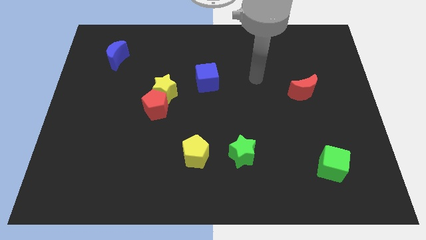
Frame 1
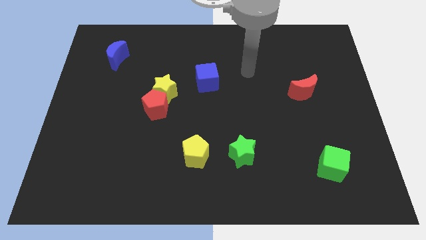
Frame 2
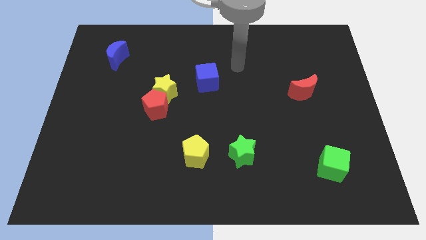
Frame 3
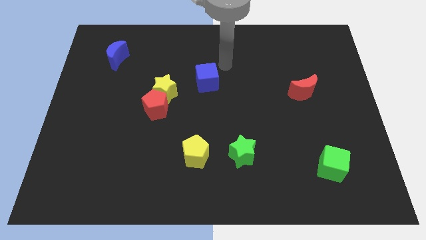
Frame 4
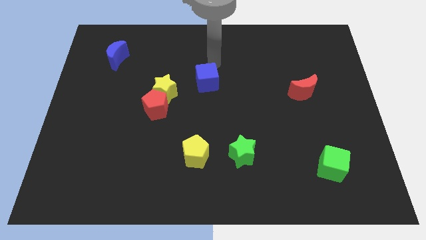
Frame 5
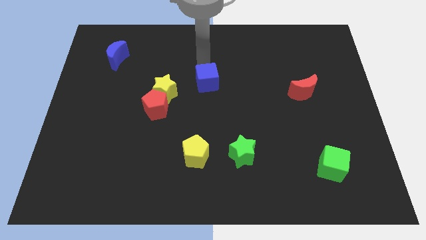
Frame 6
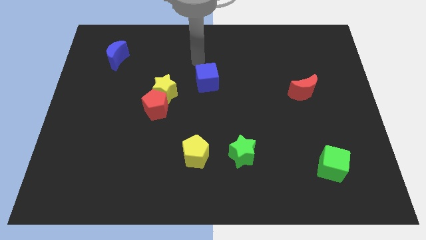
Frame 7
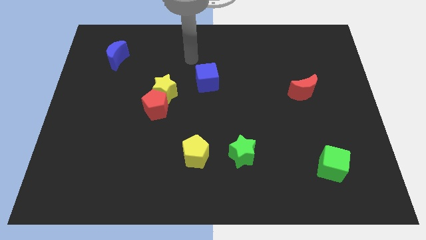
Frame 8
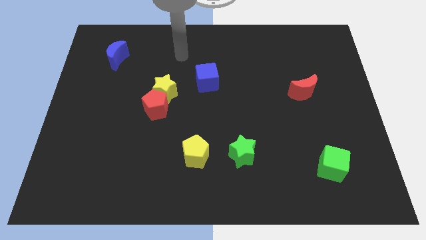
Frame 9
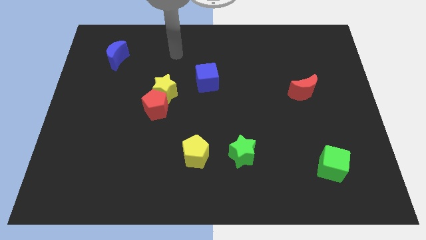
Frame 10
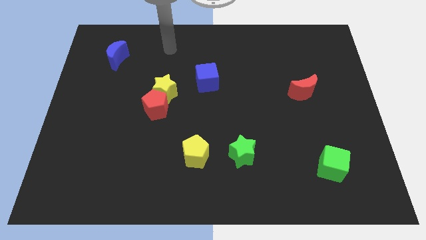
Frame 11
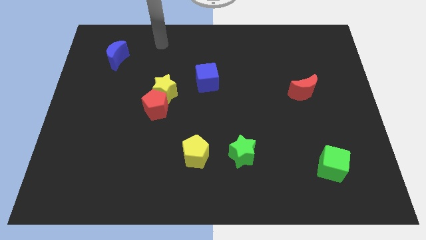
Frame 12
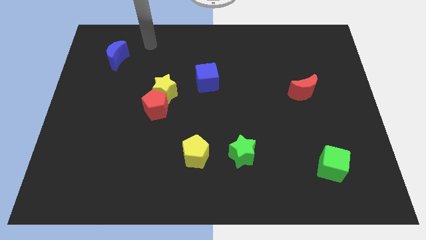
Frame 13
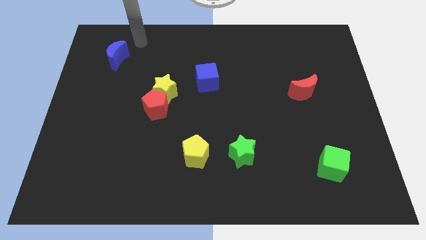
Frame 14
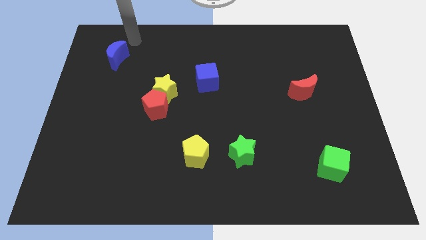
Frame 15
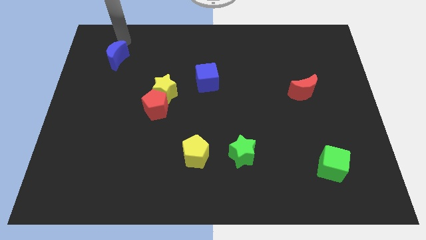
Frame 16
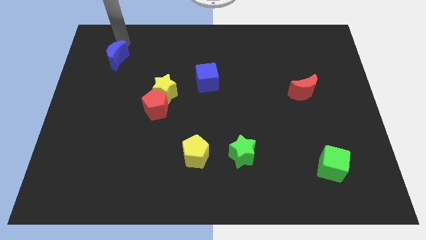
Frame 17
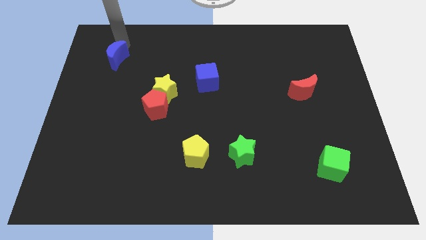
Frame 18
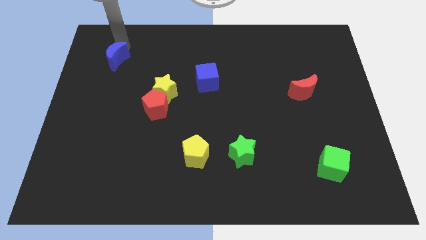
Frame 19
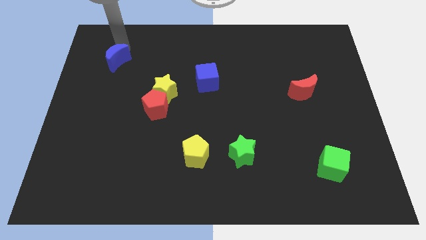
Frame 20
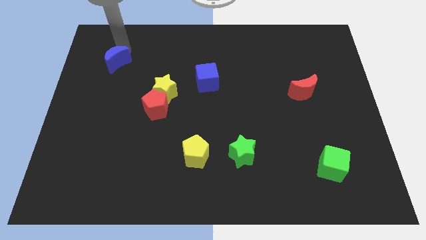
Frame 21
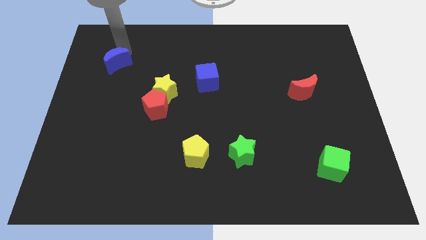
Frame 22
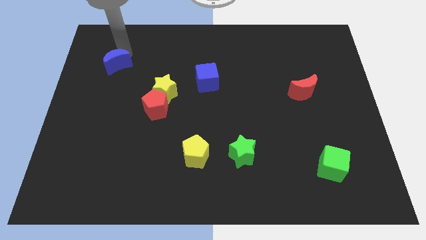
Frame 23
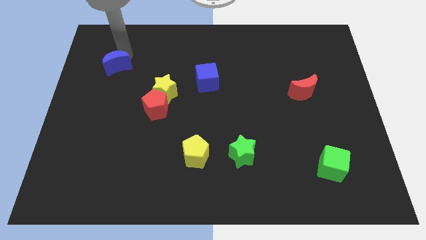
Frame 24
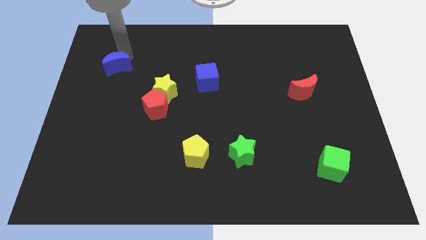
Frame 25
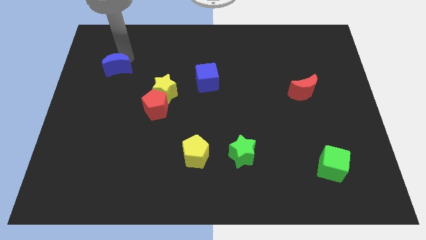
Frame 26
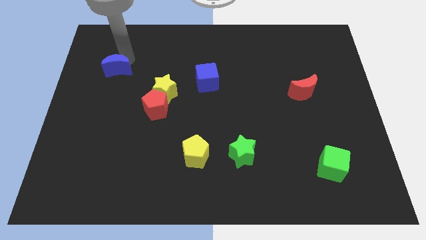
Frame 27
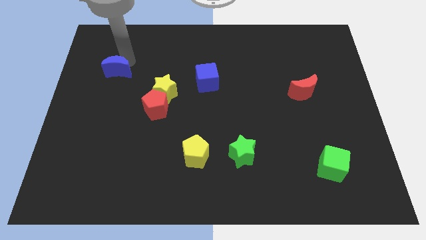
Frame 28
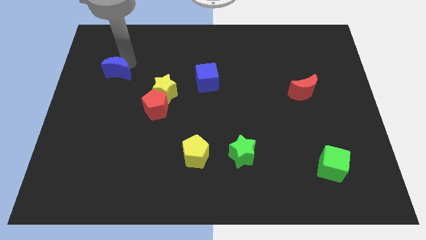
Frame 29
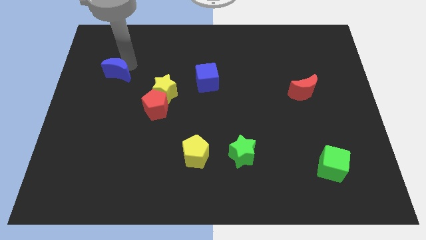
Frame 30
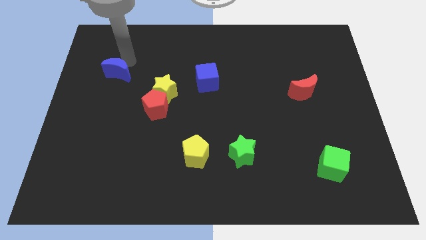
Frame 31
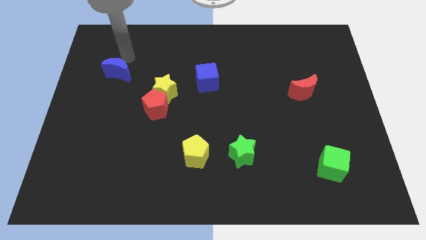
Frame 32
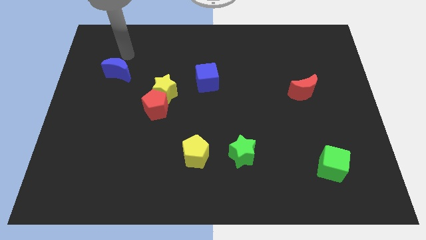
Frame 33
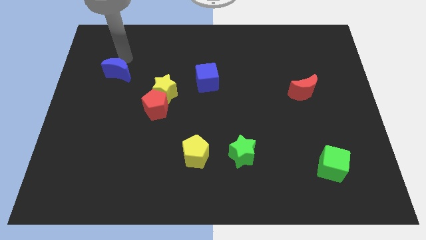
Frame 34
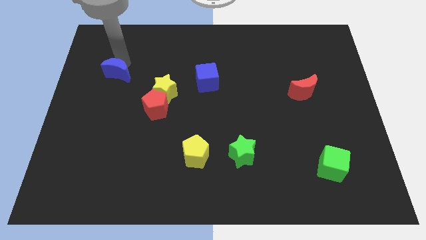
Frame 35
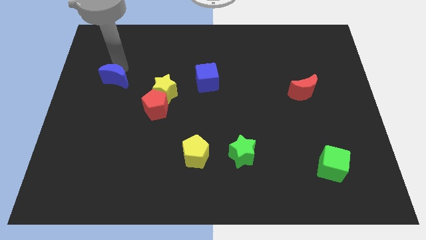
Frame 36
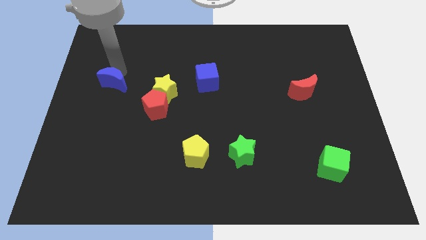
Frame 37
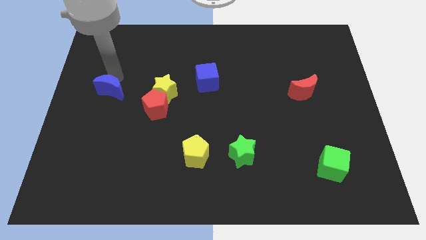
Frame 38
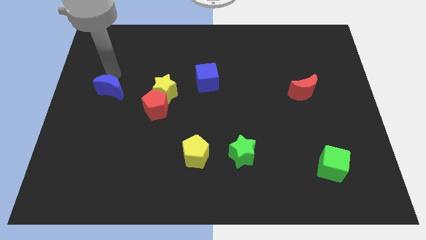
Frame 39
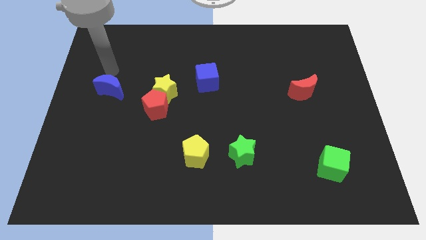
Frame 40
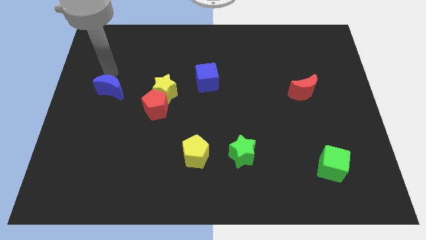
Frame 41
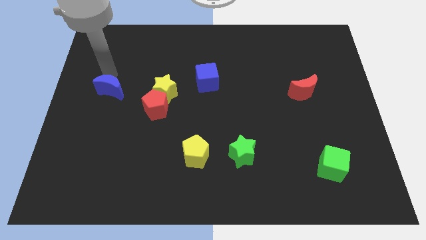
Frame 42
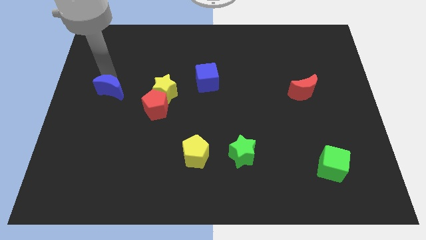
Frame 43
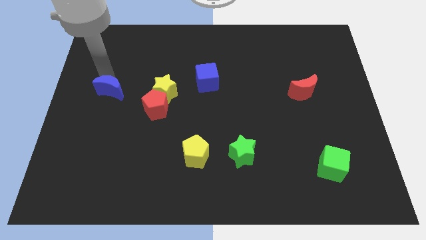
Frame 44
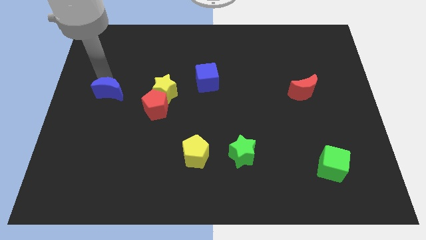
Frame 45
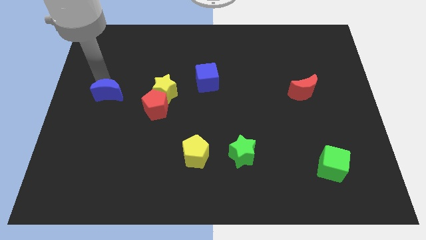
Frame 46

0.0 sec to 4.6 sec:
put the blue moon to the left of the red pentagon

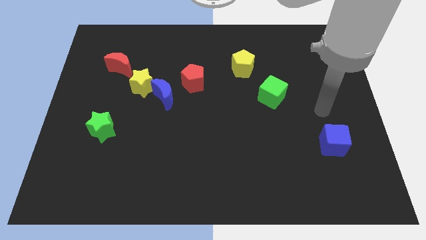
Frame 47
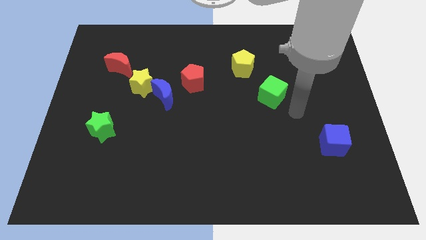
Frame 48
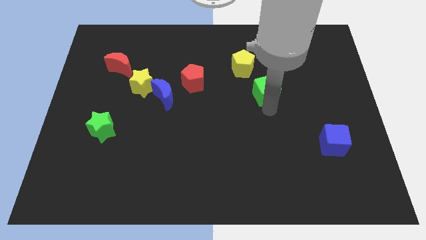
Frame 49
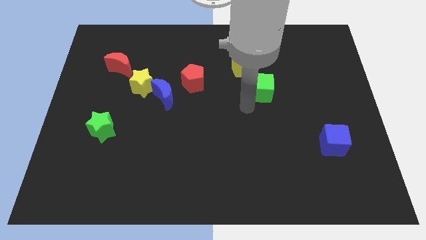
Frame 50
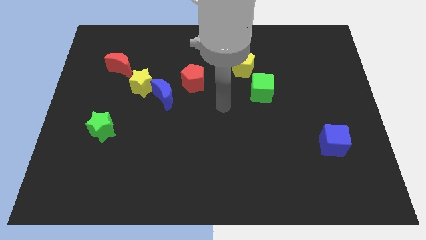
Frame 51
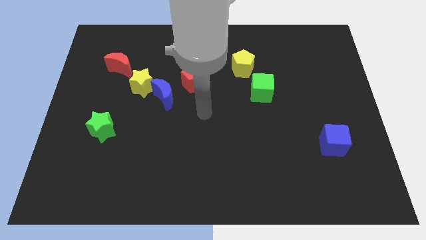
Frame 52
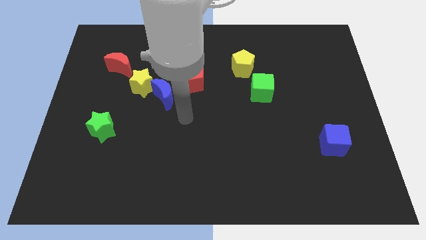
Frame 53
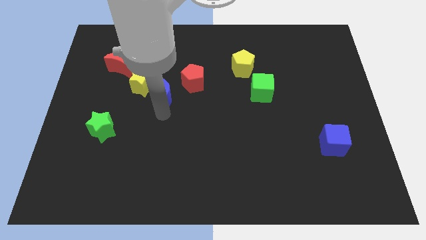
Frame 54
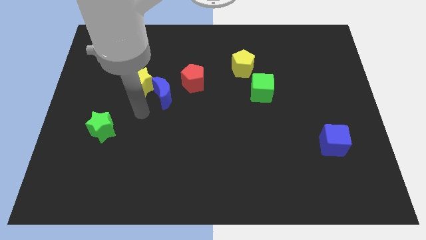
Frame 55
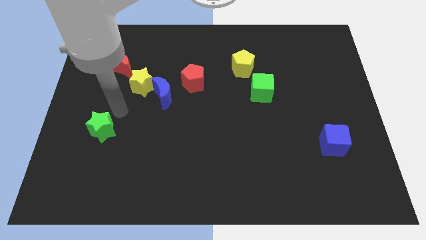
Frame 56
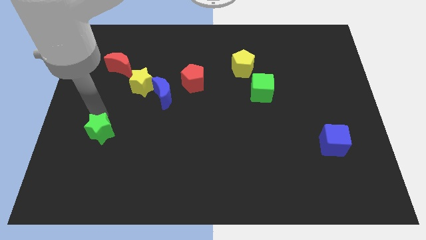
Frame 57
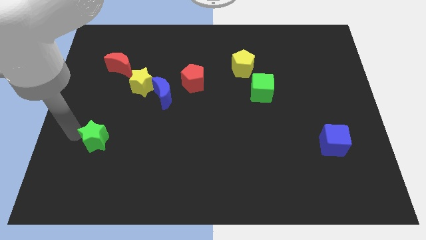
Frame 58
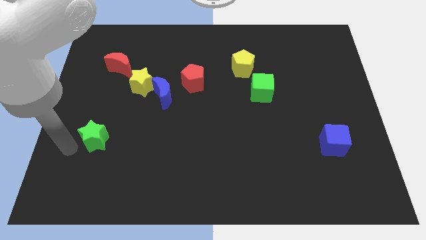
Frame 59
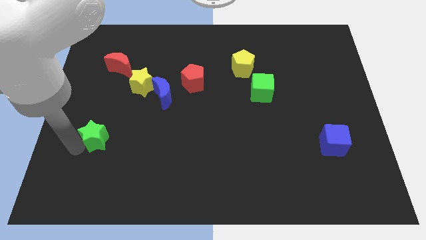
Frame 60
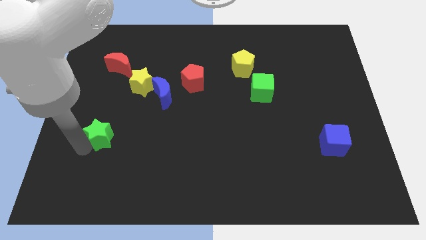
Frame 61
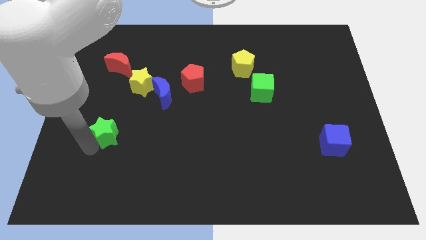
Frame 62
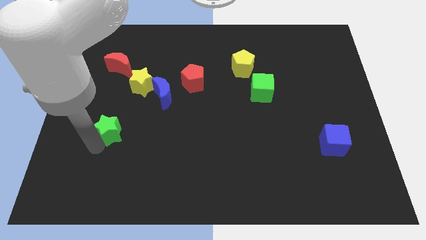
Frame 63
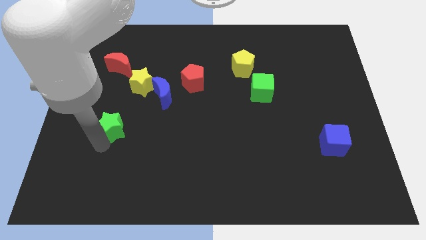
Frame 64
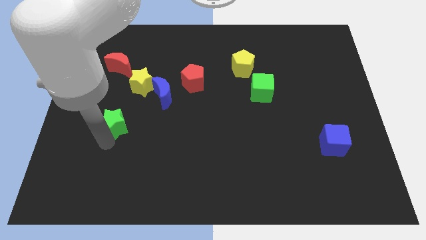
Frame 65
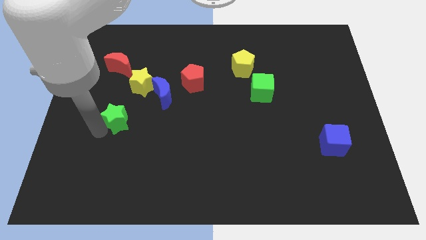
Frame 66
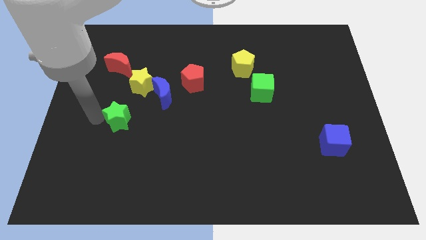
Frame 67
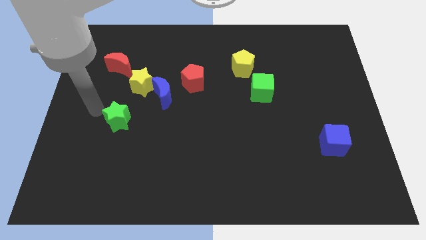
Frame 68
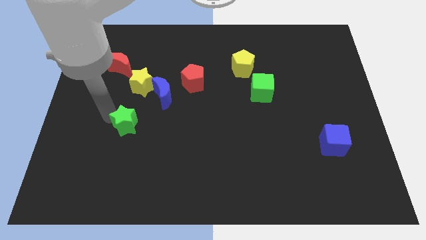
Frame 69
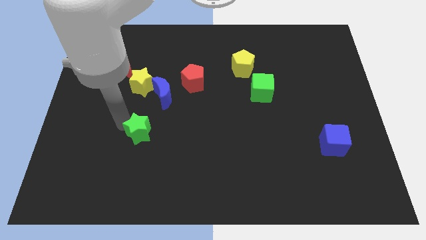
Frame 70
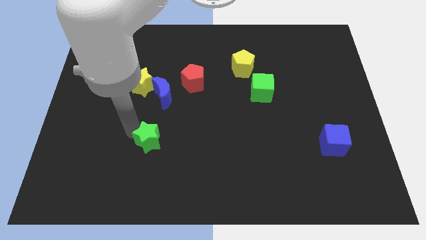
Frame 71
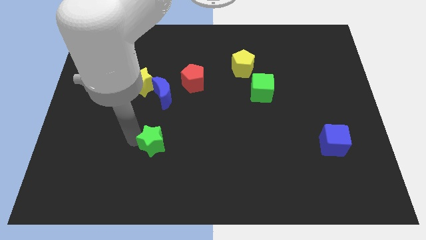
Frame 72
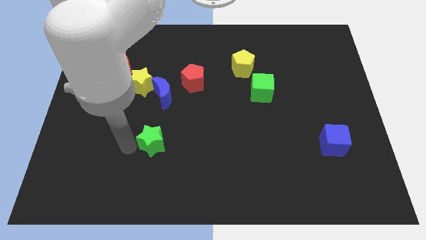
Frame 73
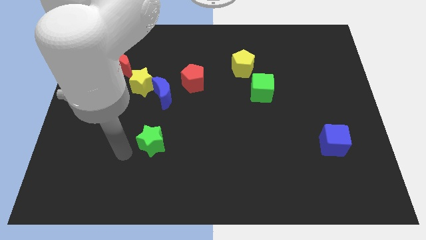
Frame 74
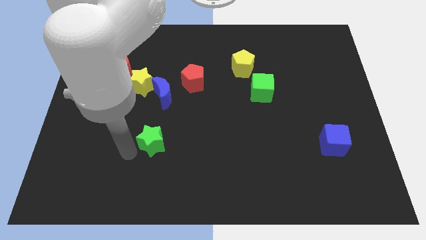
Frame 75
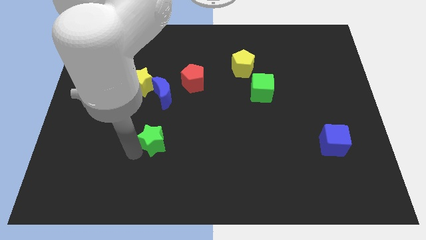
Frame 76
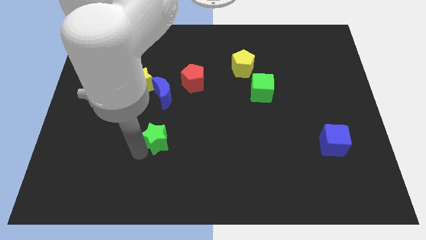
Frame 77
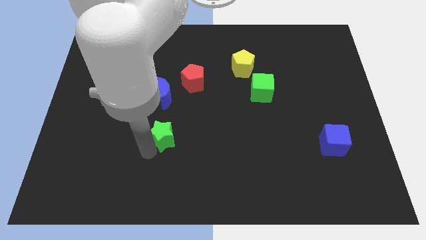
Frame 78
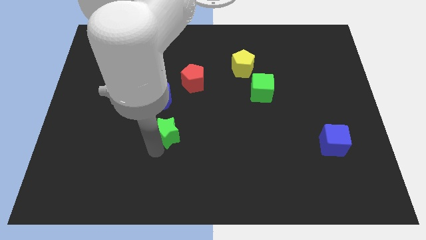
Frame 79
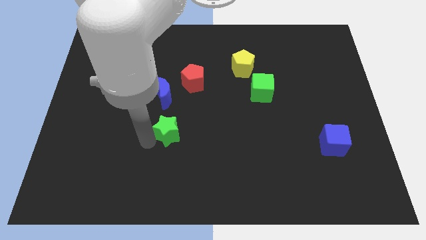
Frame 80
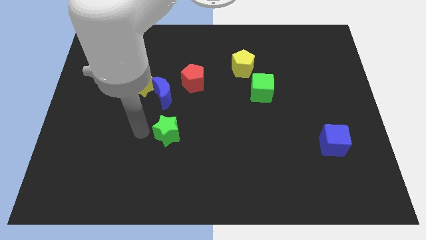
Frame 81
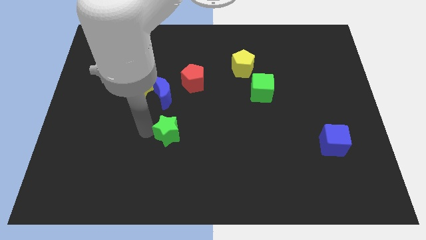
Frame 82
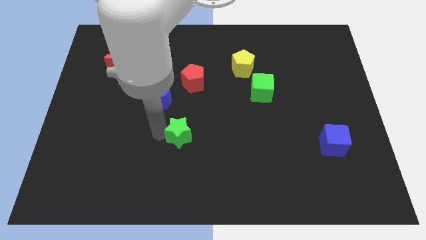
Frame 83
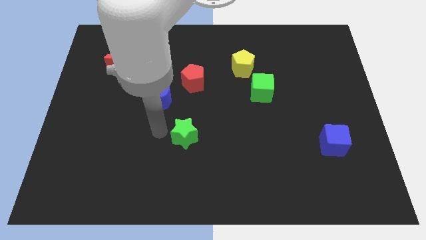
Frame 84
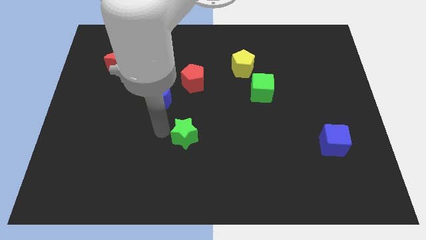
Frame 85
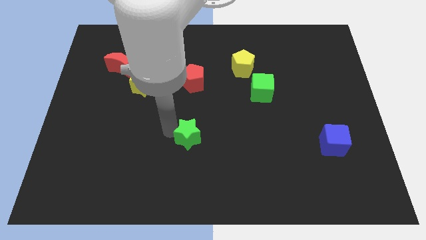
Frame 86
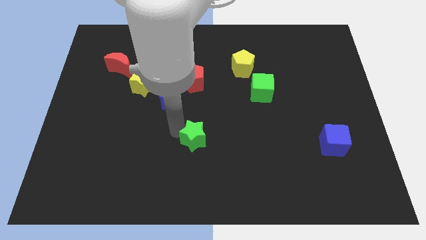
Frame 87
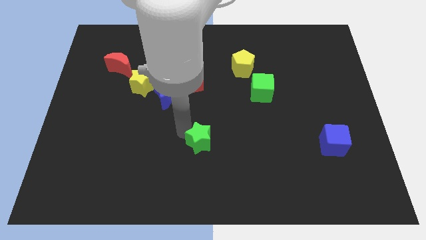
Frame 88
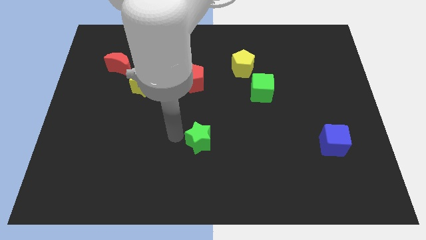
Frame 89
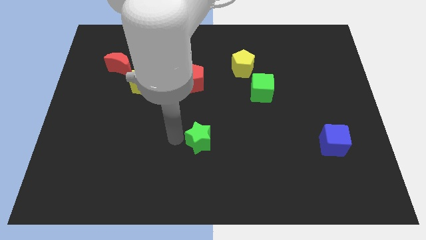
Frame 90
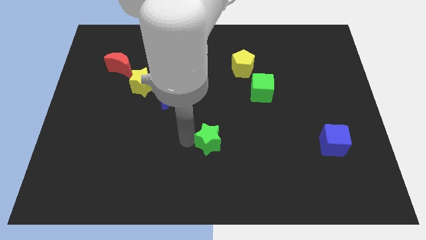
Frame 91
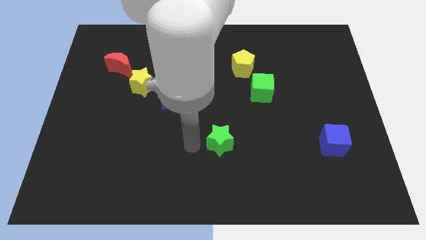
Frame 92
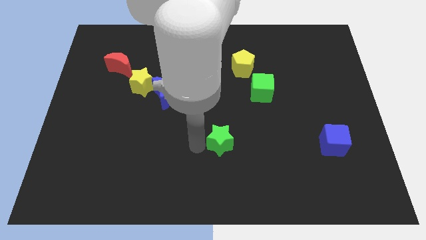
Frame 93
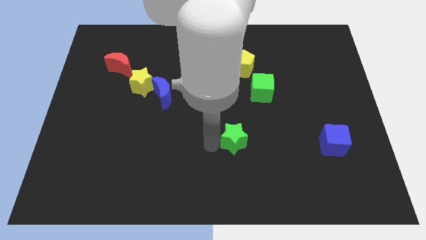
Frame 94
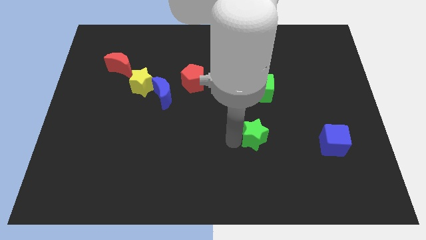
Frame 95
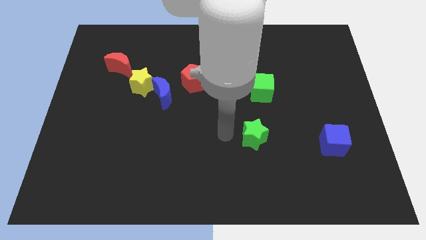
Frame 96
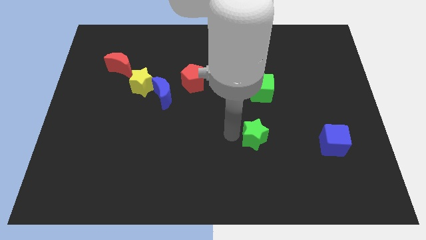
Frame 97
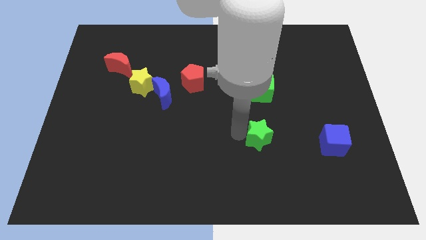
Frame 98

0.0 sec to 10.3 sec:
put the green star to the left side of the blue cube
